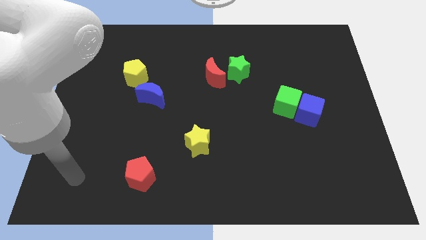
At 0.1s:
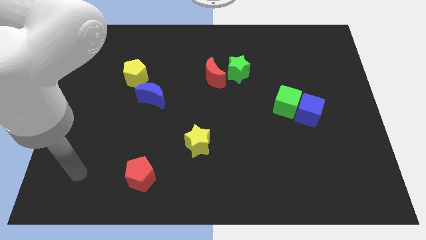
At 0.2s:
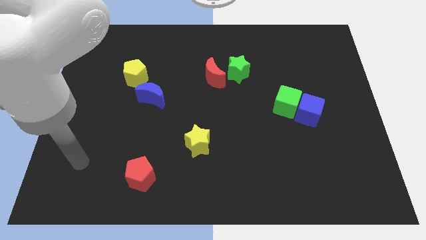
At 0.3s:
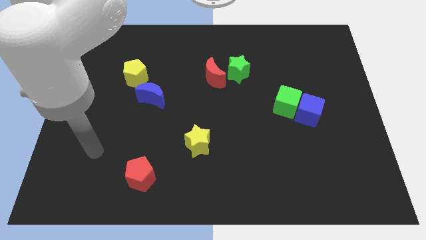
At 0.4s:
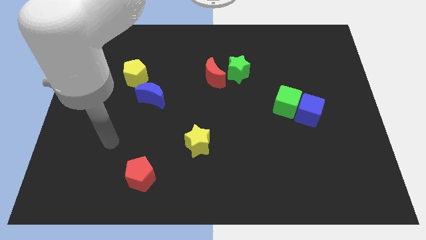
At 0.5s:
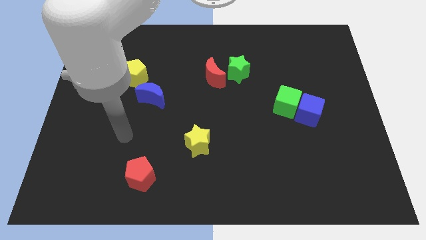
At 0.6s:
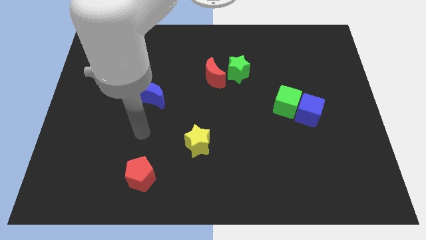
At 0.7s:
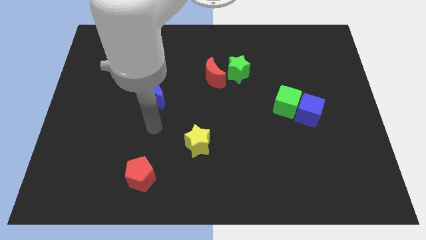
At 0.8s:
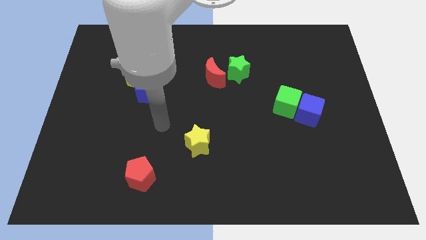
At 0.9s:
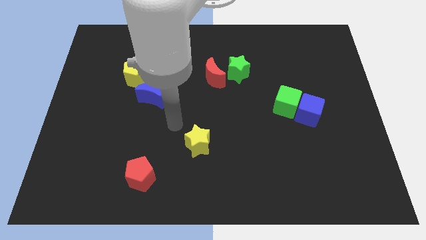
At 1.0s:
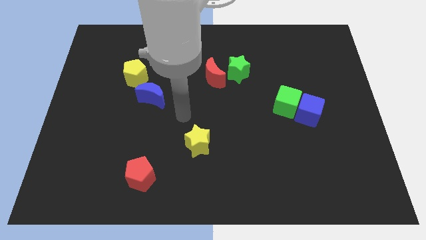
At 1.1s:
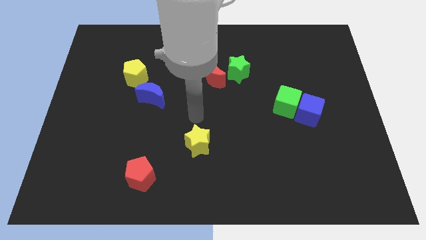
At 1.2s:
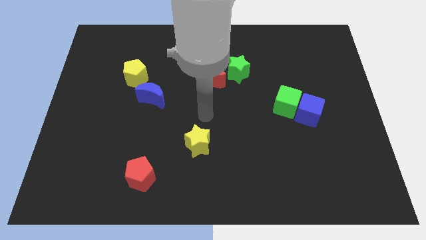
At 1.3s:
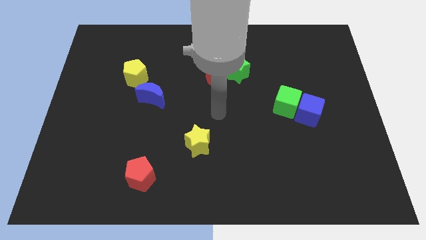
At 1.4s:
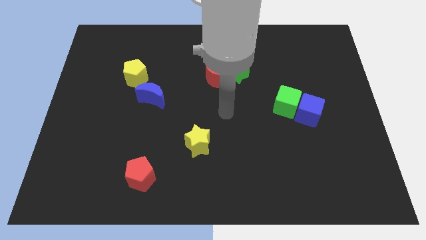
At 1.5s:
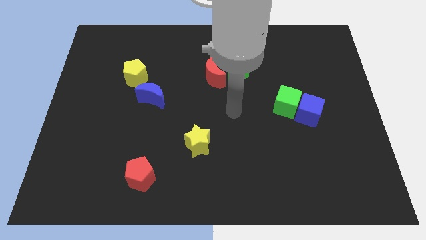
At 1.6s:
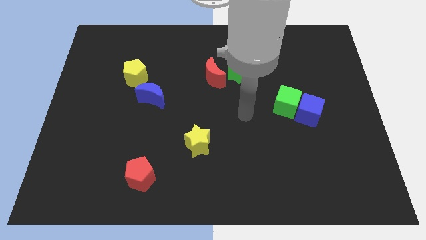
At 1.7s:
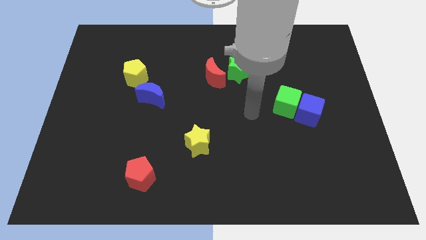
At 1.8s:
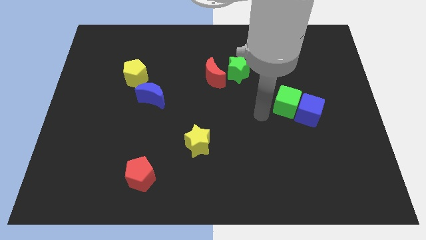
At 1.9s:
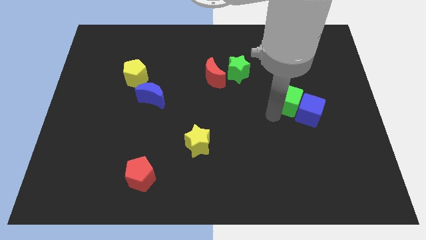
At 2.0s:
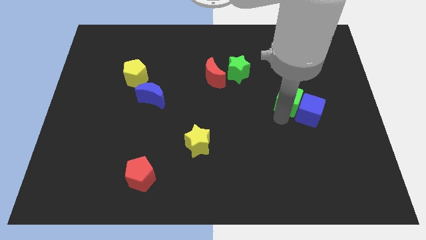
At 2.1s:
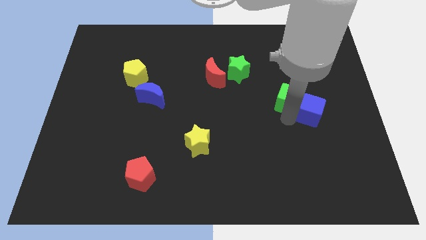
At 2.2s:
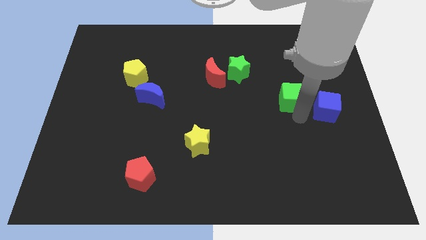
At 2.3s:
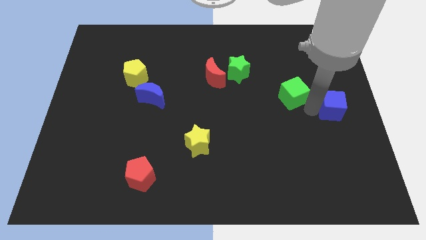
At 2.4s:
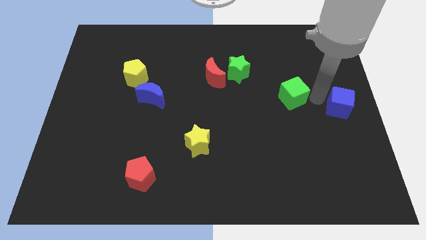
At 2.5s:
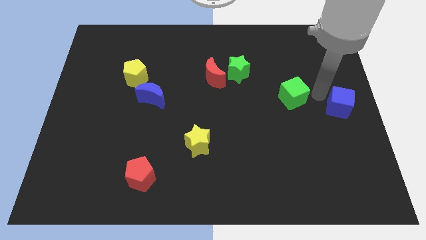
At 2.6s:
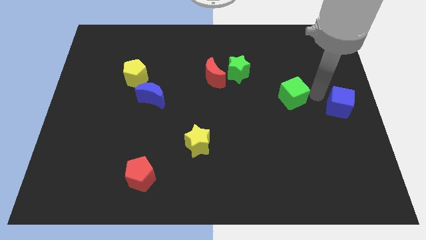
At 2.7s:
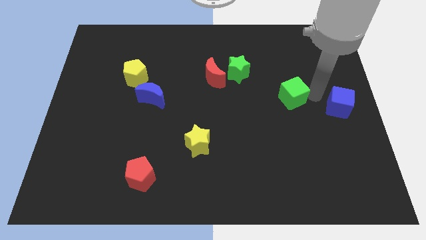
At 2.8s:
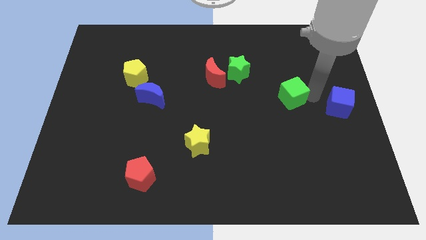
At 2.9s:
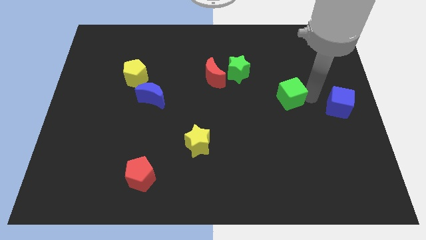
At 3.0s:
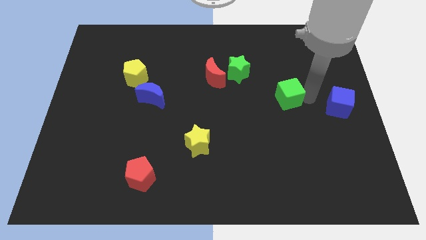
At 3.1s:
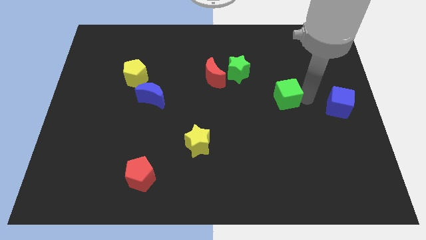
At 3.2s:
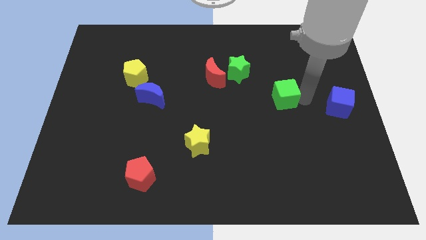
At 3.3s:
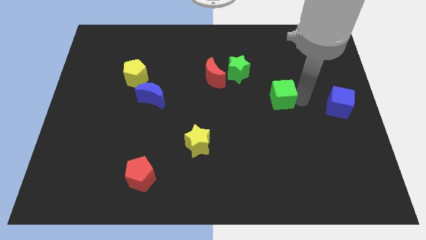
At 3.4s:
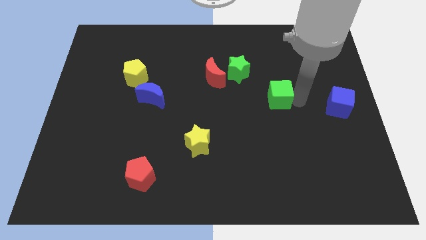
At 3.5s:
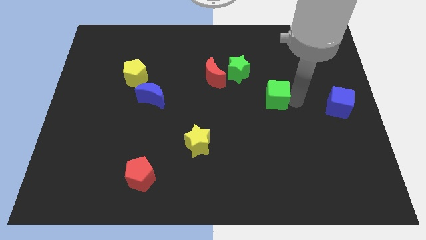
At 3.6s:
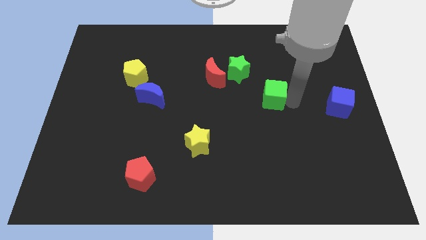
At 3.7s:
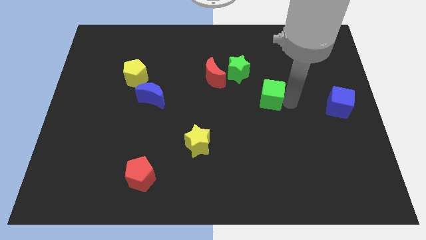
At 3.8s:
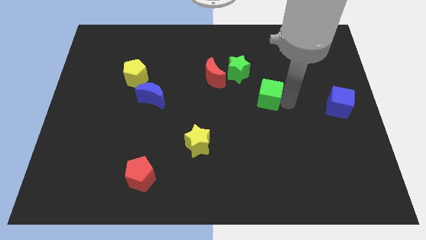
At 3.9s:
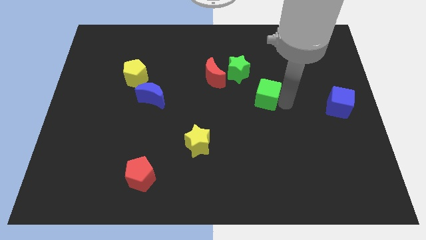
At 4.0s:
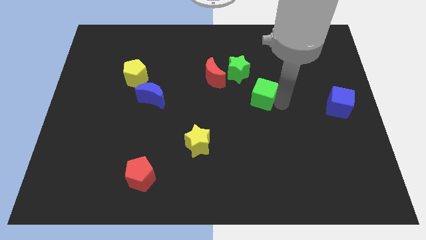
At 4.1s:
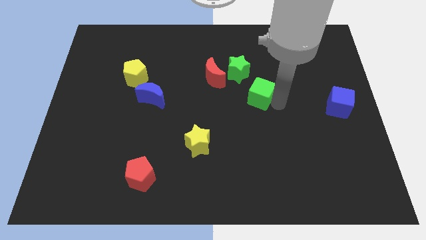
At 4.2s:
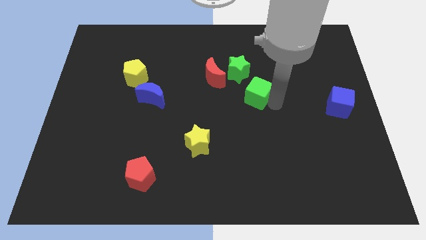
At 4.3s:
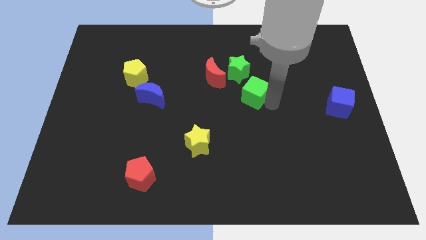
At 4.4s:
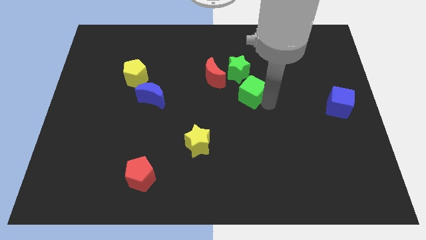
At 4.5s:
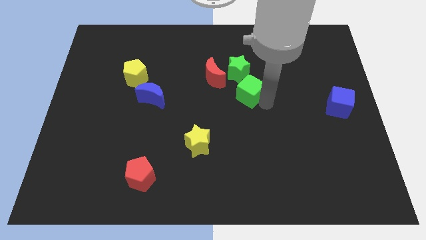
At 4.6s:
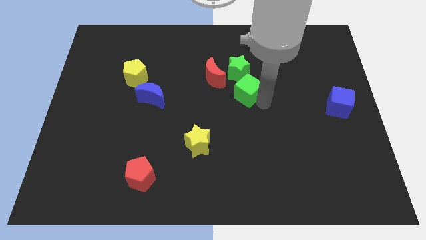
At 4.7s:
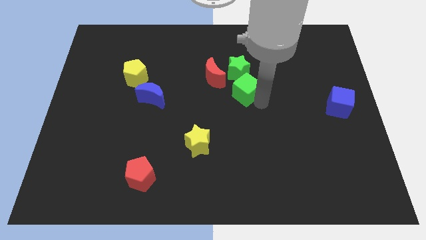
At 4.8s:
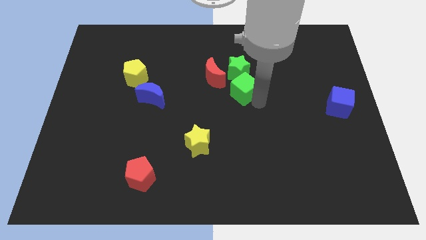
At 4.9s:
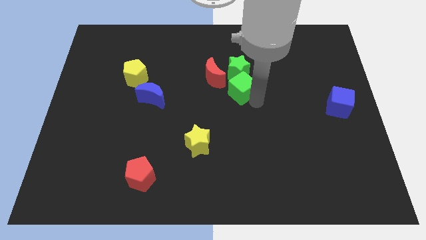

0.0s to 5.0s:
slide the green cube close to the green star

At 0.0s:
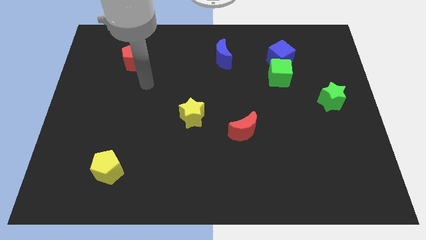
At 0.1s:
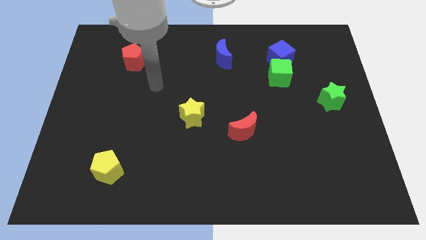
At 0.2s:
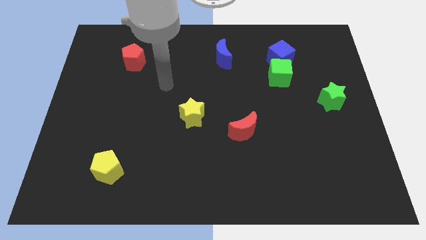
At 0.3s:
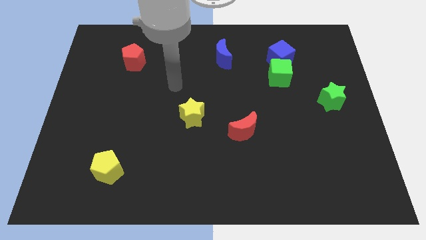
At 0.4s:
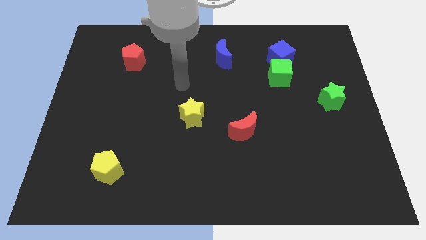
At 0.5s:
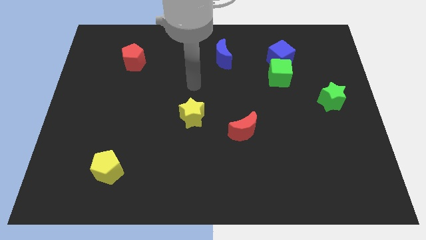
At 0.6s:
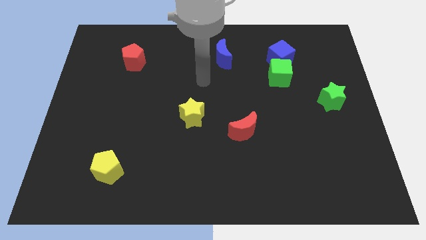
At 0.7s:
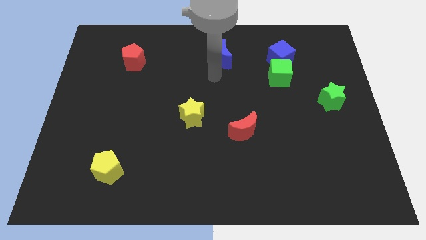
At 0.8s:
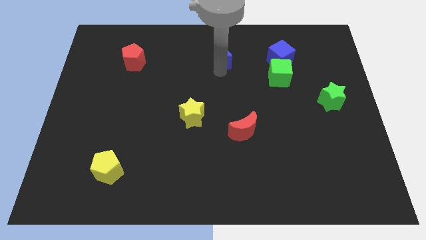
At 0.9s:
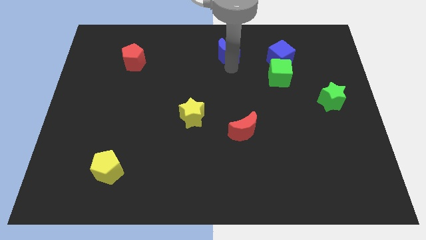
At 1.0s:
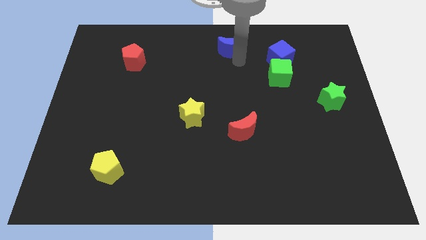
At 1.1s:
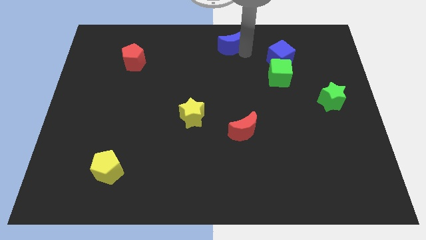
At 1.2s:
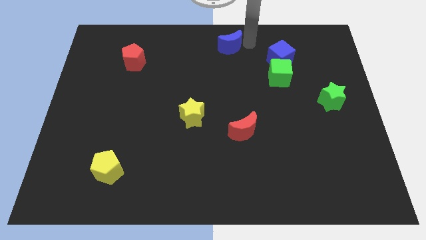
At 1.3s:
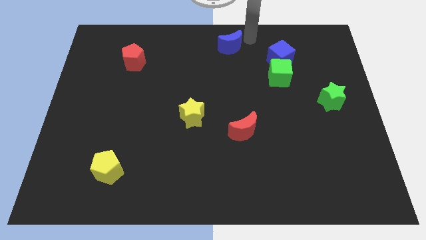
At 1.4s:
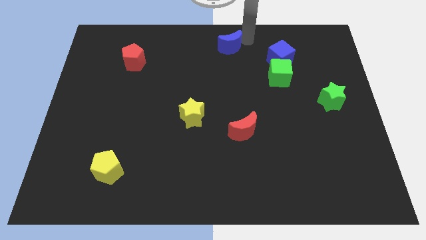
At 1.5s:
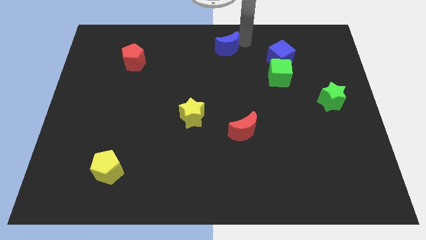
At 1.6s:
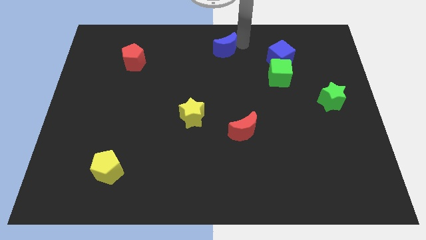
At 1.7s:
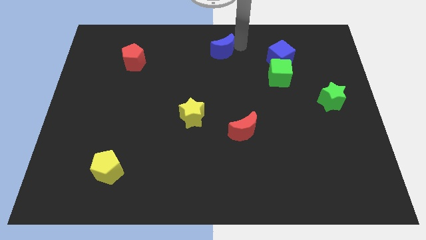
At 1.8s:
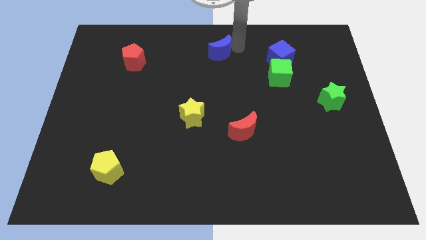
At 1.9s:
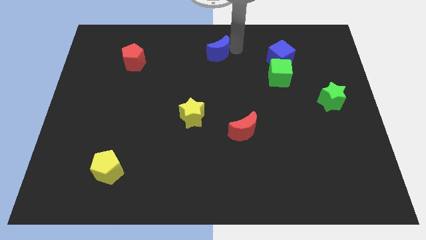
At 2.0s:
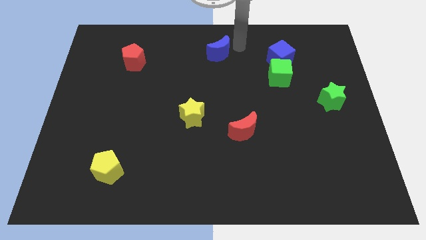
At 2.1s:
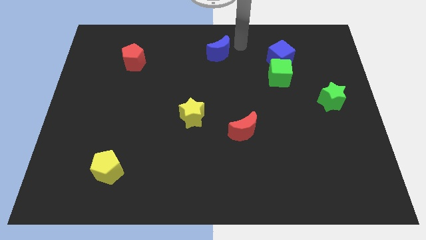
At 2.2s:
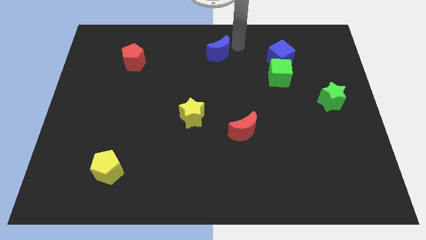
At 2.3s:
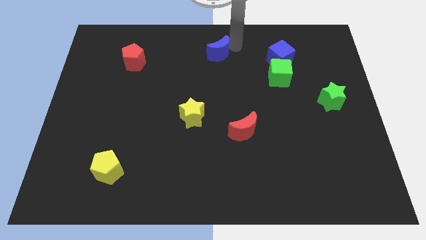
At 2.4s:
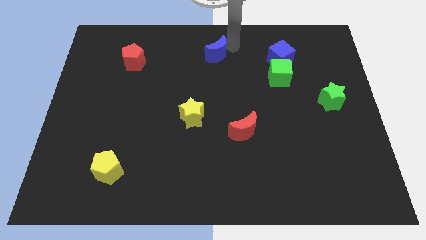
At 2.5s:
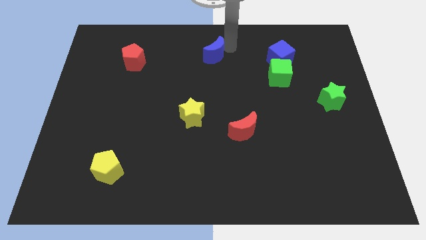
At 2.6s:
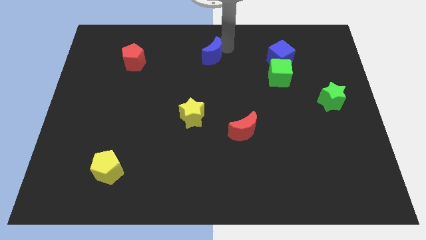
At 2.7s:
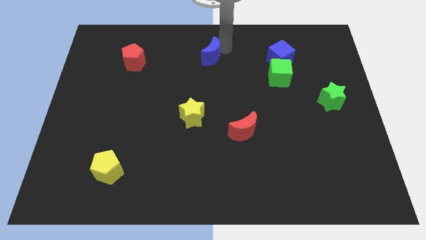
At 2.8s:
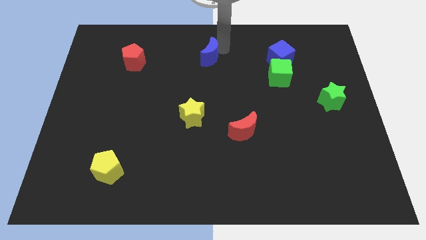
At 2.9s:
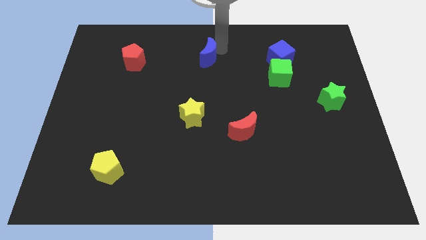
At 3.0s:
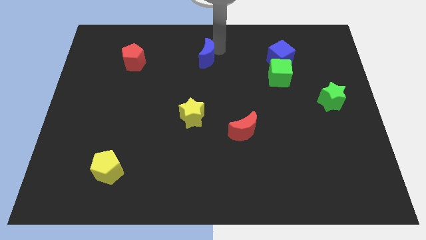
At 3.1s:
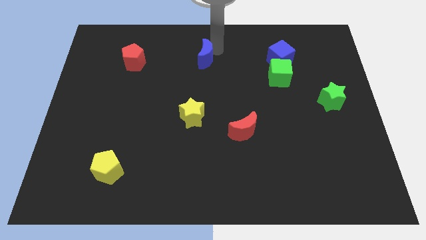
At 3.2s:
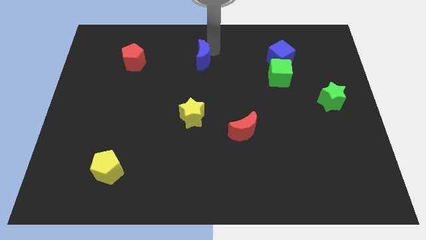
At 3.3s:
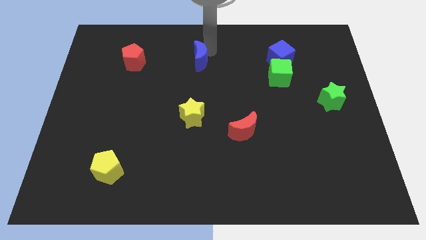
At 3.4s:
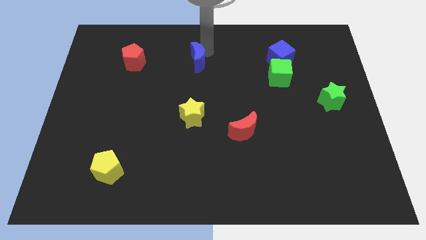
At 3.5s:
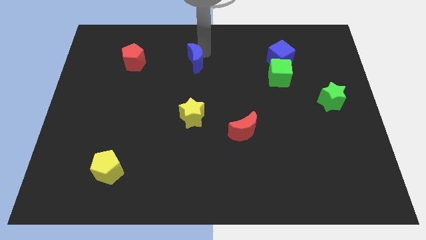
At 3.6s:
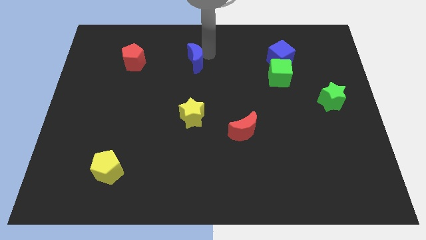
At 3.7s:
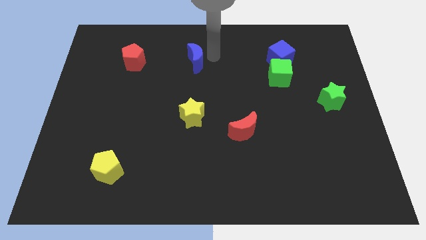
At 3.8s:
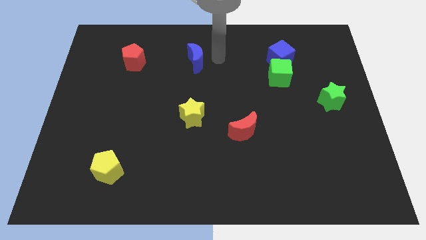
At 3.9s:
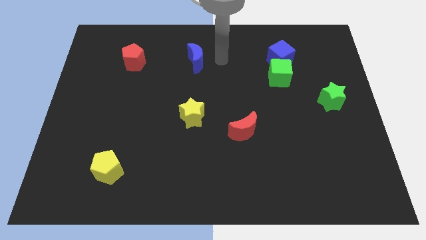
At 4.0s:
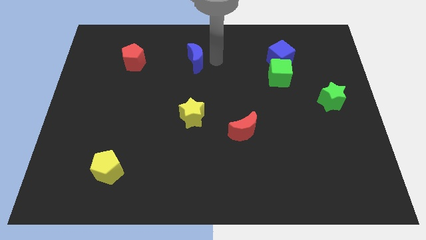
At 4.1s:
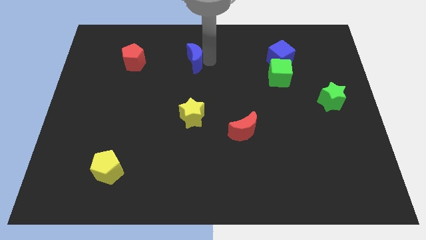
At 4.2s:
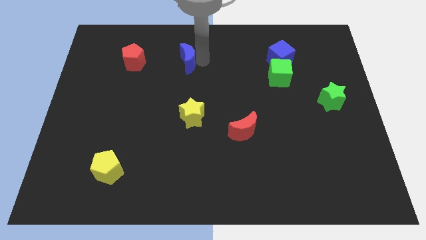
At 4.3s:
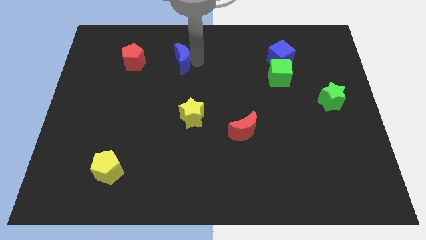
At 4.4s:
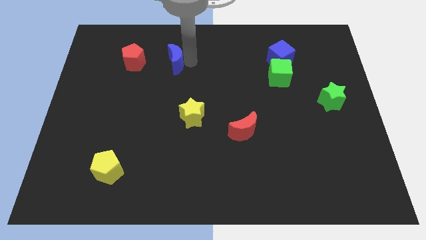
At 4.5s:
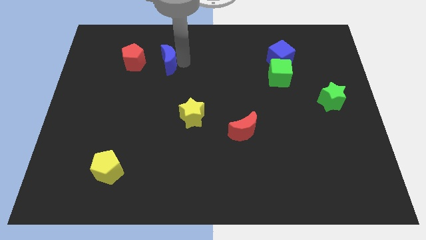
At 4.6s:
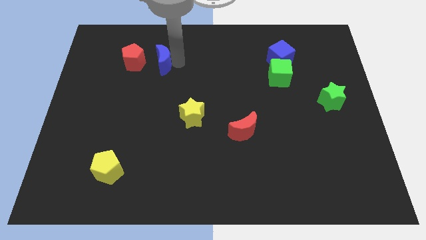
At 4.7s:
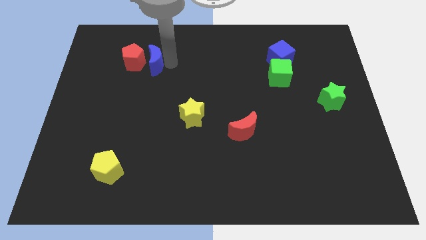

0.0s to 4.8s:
slide the blue moon towards the red pentagon
